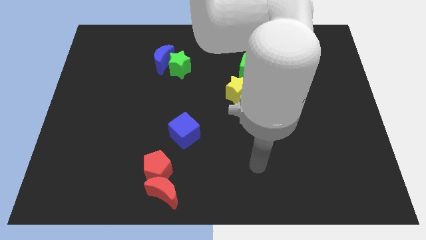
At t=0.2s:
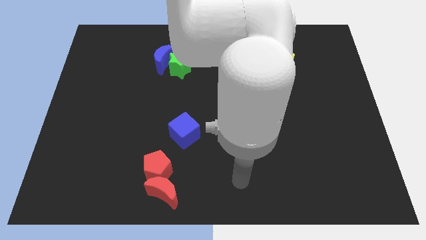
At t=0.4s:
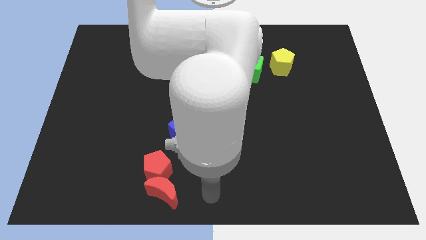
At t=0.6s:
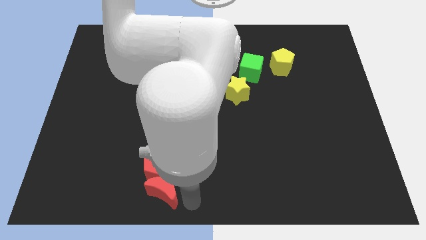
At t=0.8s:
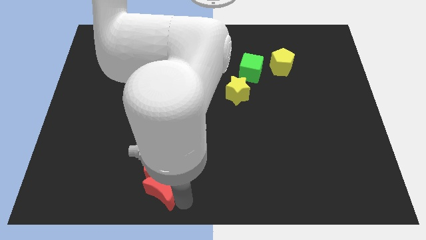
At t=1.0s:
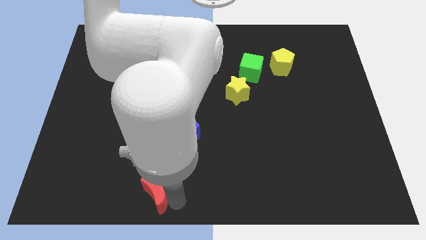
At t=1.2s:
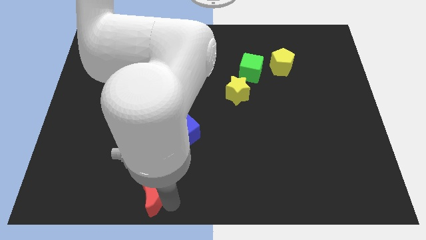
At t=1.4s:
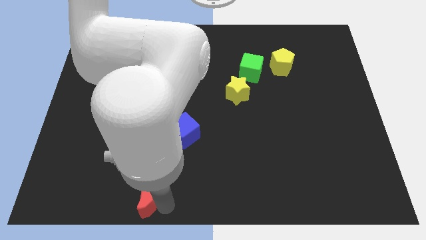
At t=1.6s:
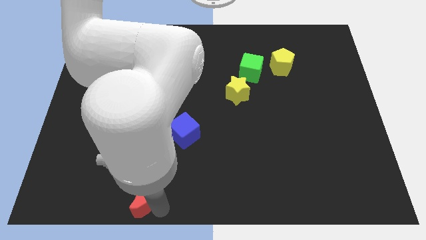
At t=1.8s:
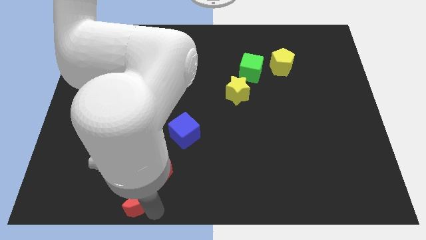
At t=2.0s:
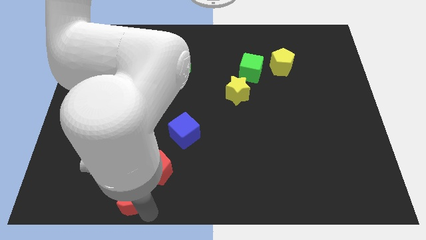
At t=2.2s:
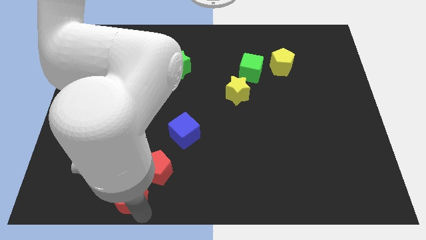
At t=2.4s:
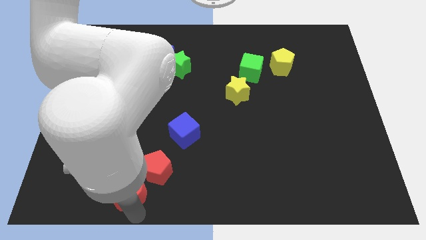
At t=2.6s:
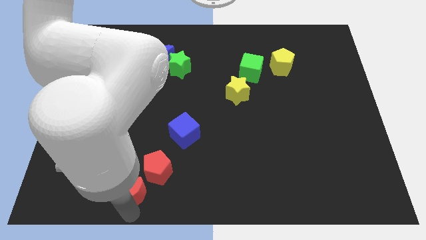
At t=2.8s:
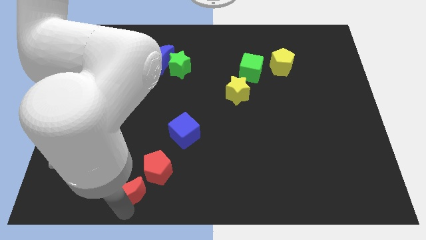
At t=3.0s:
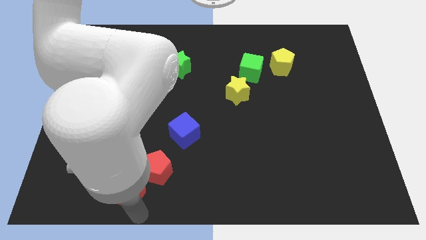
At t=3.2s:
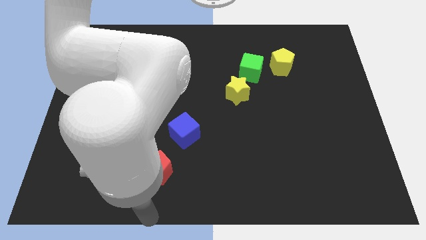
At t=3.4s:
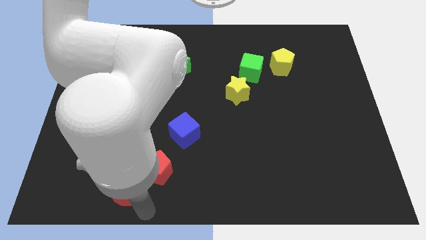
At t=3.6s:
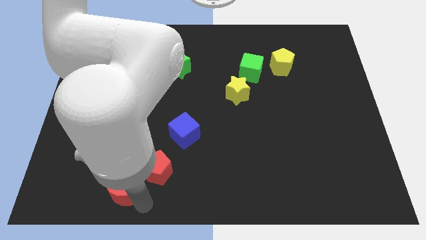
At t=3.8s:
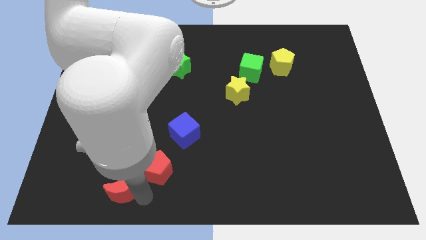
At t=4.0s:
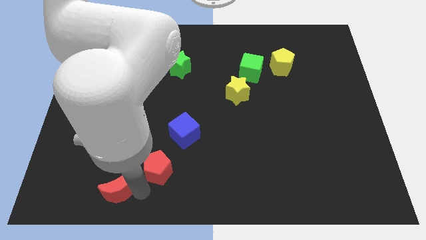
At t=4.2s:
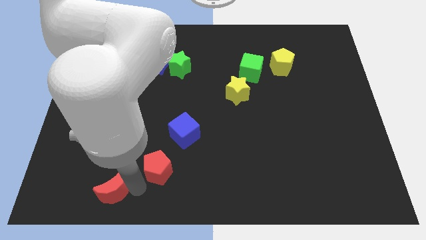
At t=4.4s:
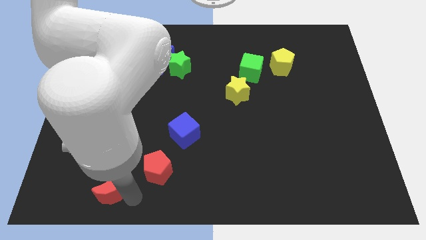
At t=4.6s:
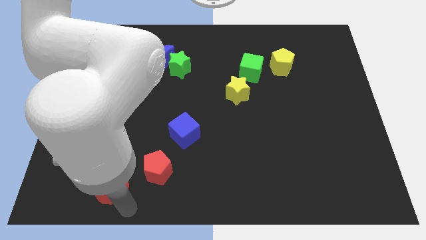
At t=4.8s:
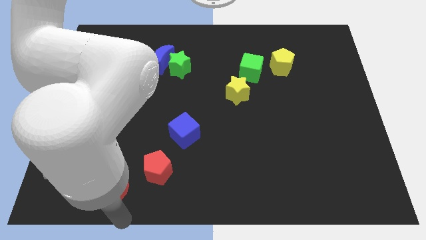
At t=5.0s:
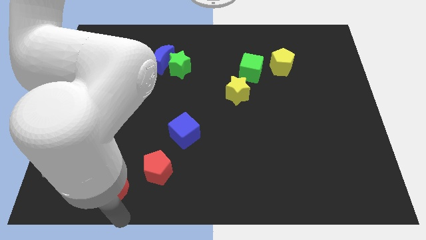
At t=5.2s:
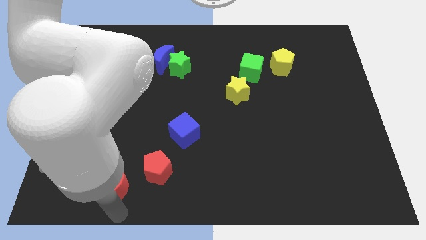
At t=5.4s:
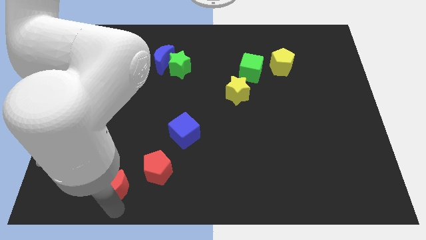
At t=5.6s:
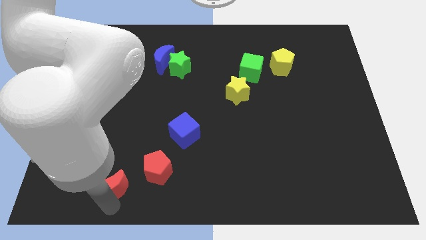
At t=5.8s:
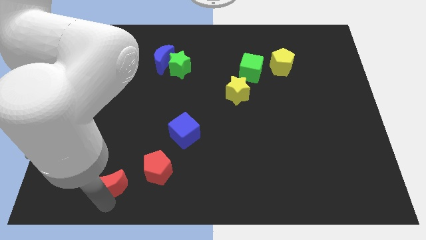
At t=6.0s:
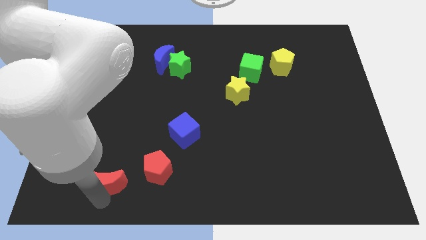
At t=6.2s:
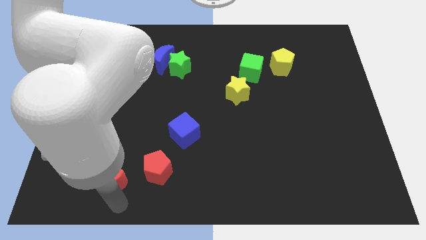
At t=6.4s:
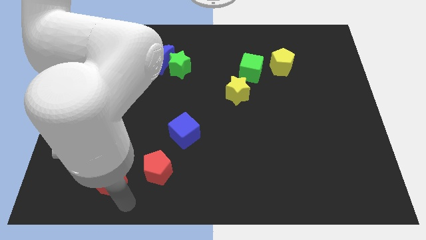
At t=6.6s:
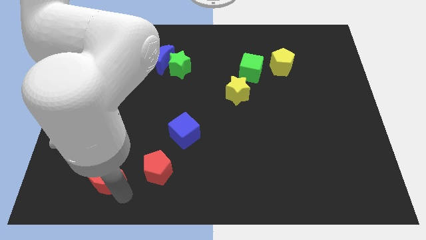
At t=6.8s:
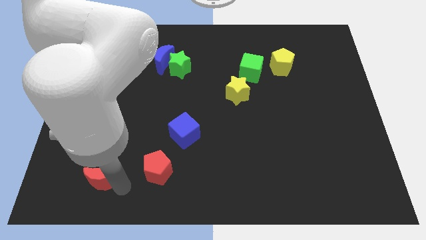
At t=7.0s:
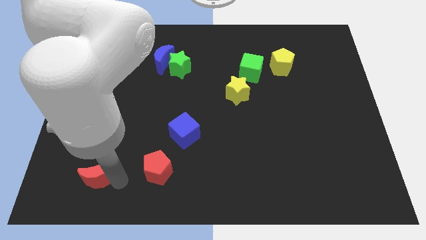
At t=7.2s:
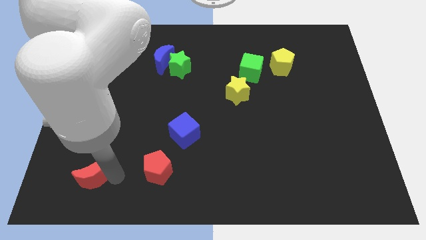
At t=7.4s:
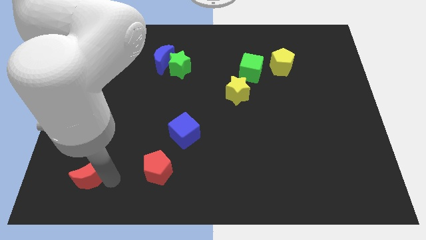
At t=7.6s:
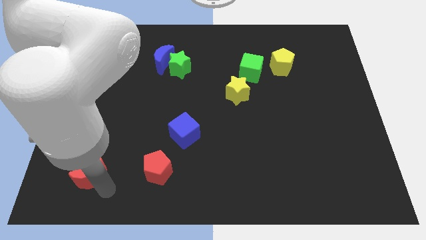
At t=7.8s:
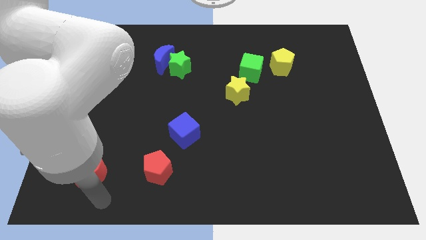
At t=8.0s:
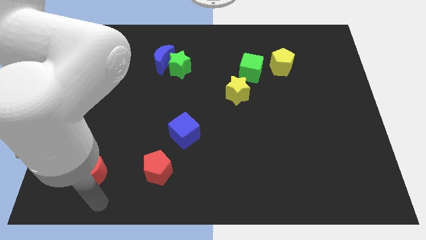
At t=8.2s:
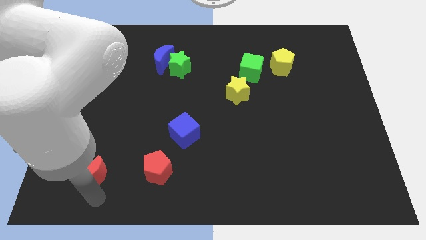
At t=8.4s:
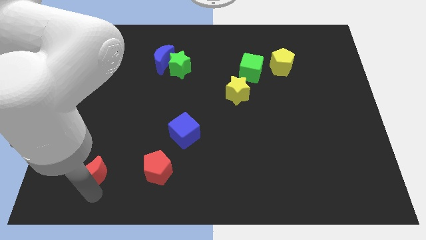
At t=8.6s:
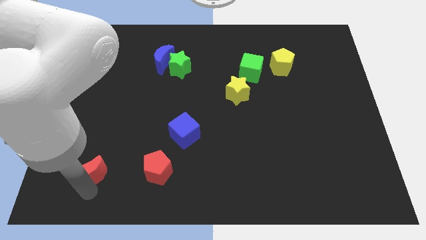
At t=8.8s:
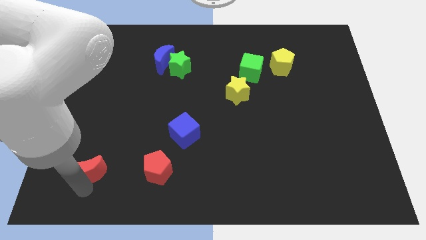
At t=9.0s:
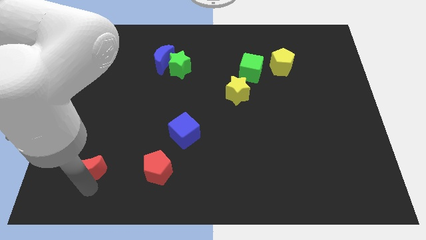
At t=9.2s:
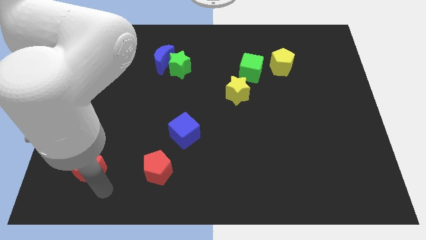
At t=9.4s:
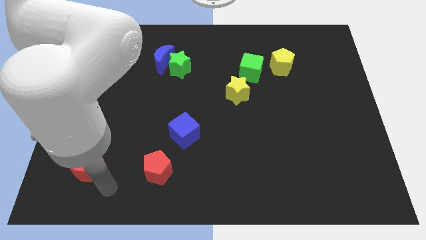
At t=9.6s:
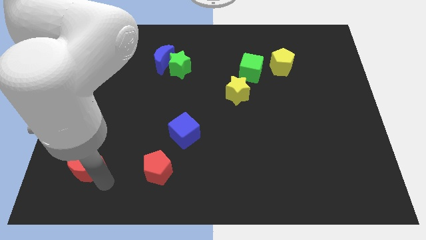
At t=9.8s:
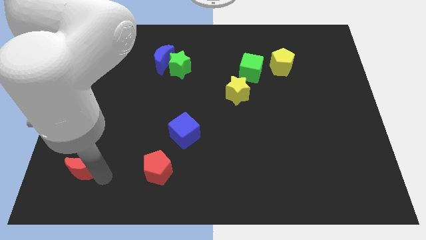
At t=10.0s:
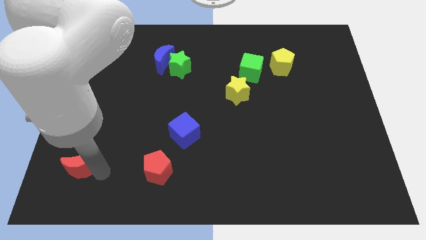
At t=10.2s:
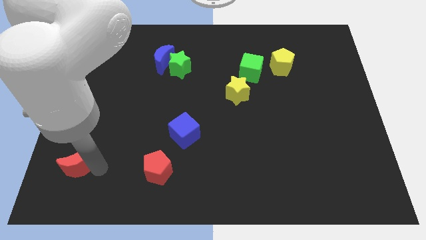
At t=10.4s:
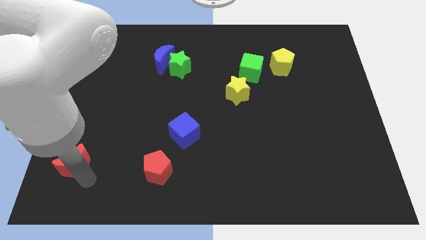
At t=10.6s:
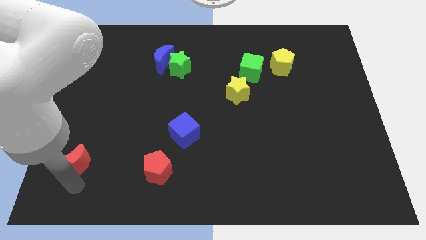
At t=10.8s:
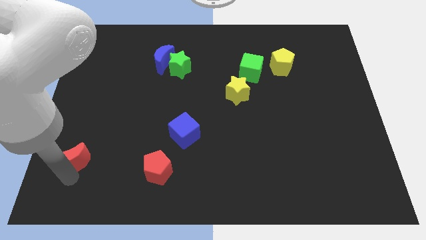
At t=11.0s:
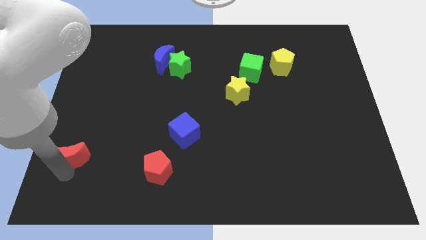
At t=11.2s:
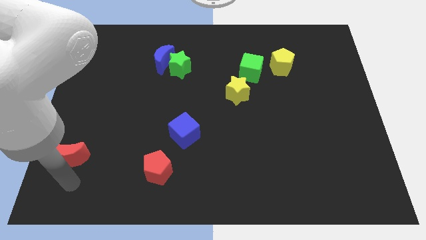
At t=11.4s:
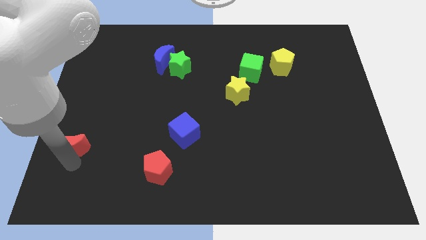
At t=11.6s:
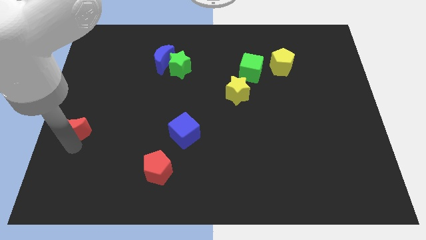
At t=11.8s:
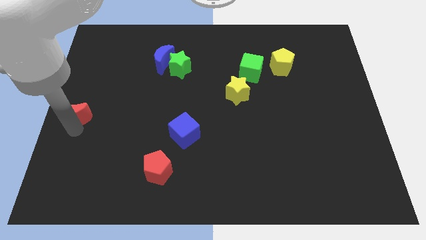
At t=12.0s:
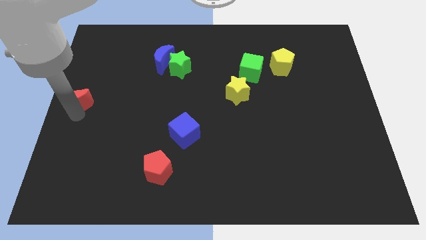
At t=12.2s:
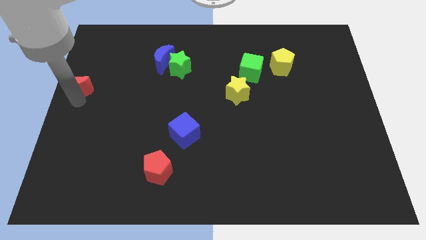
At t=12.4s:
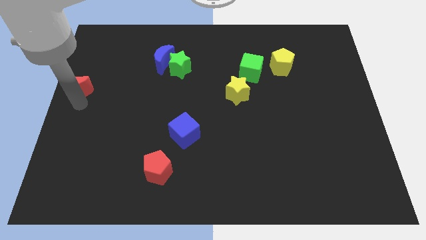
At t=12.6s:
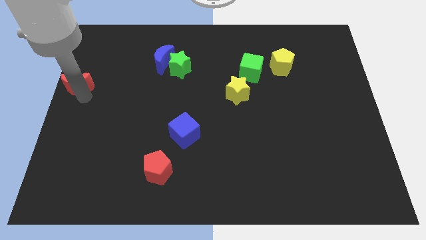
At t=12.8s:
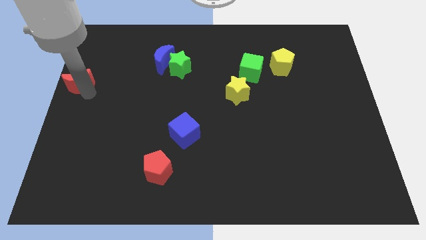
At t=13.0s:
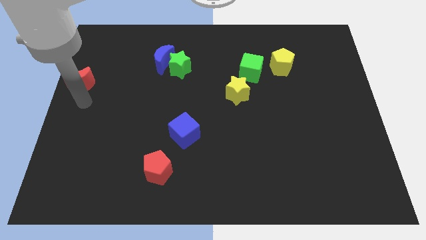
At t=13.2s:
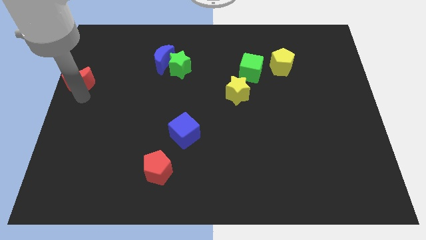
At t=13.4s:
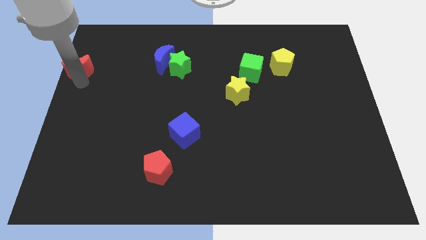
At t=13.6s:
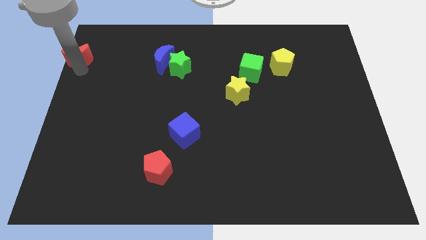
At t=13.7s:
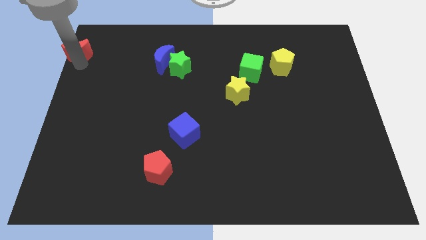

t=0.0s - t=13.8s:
push the red moon to the top left

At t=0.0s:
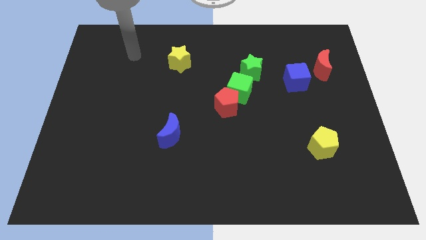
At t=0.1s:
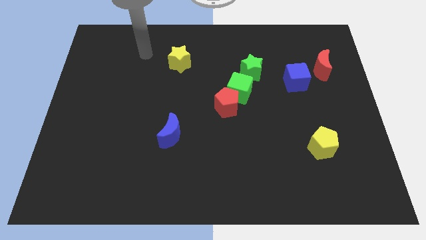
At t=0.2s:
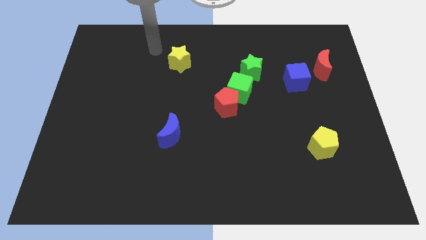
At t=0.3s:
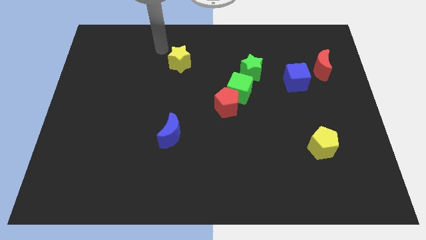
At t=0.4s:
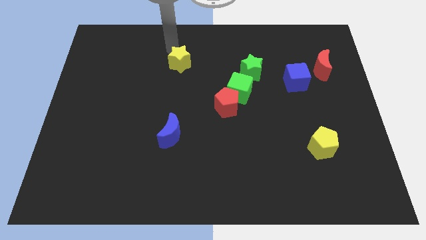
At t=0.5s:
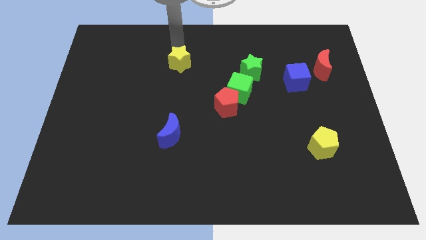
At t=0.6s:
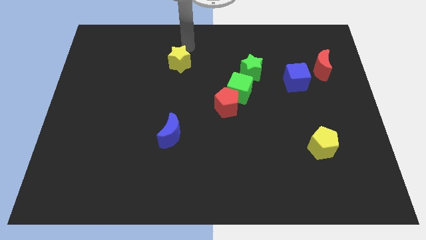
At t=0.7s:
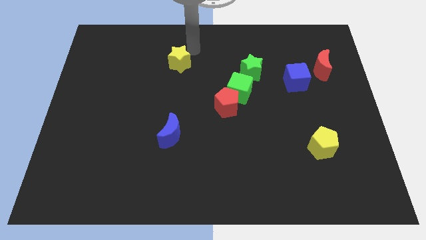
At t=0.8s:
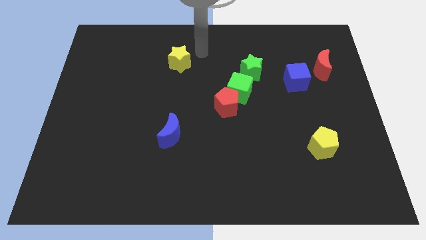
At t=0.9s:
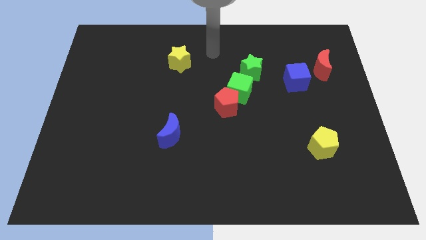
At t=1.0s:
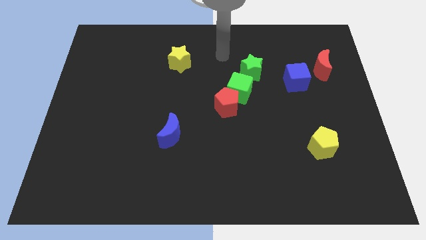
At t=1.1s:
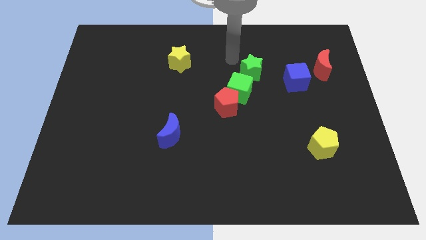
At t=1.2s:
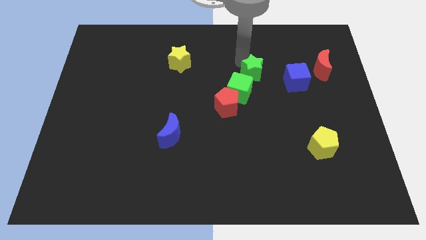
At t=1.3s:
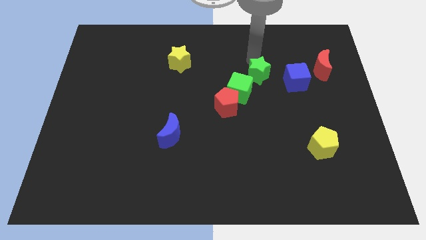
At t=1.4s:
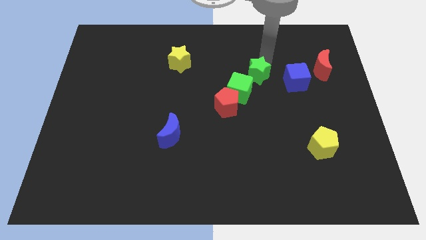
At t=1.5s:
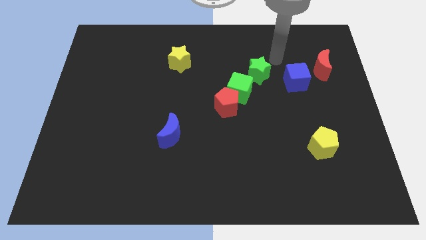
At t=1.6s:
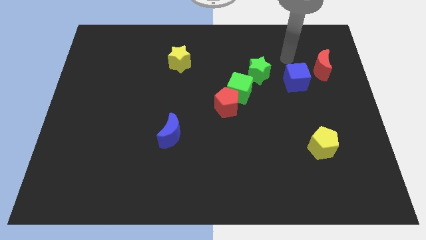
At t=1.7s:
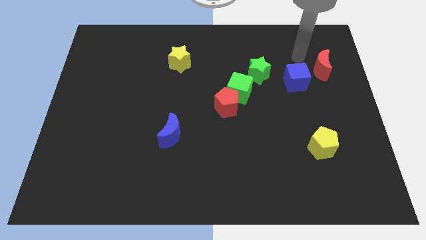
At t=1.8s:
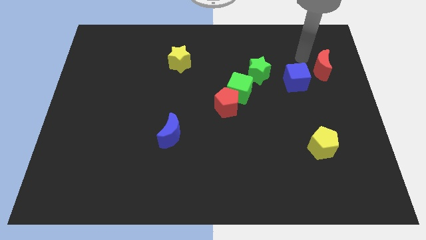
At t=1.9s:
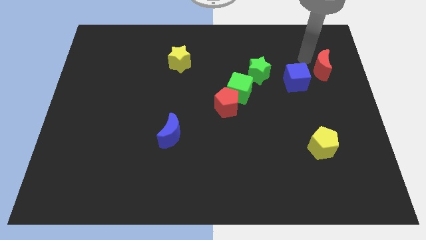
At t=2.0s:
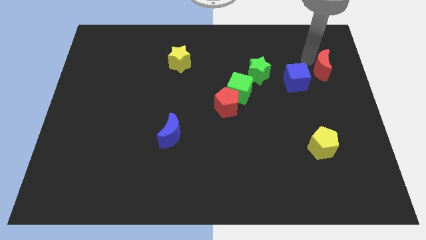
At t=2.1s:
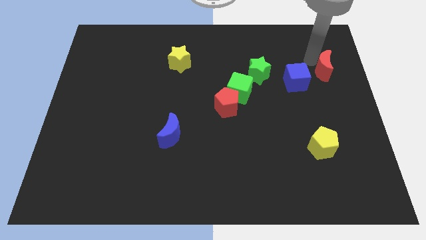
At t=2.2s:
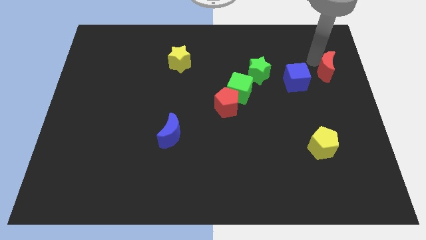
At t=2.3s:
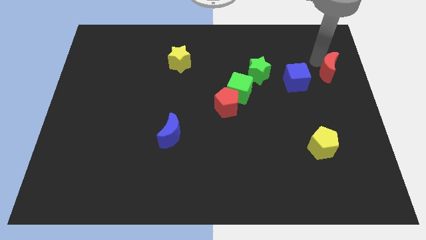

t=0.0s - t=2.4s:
slide the red moon to the right side of the board
